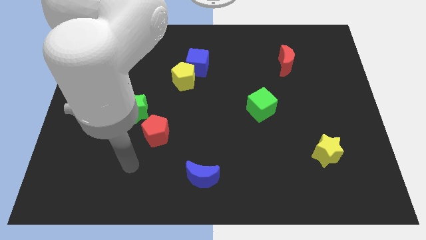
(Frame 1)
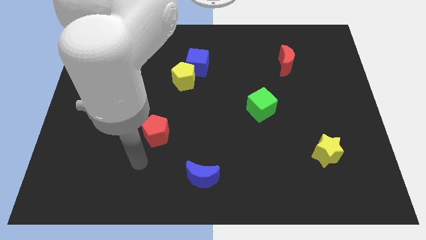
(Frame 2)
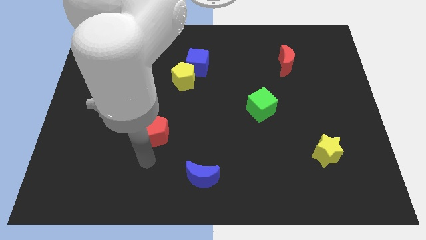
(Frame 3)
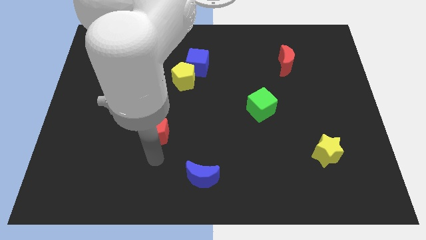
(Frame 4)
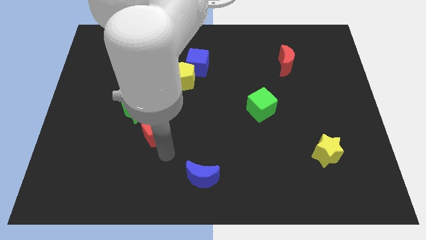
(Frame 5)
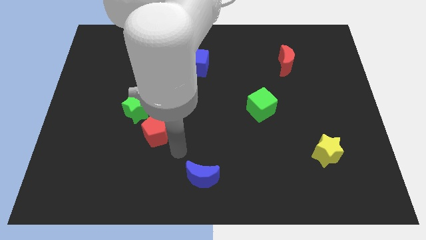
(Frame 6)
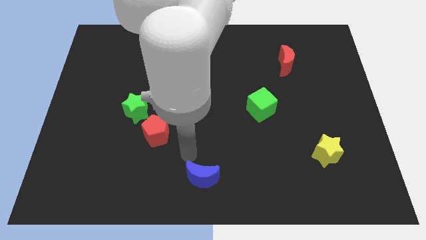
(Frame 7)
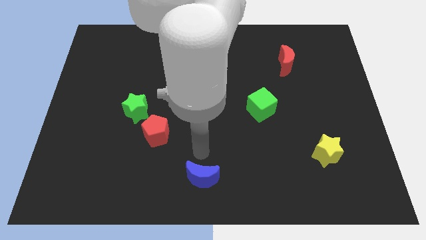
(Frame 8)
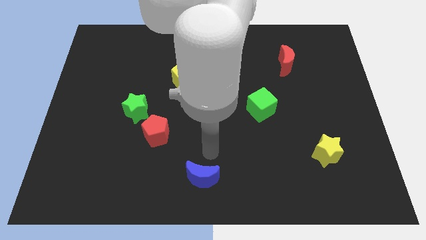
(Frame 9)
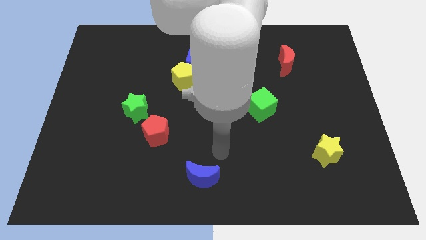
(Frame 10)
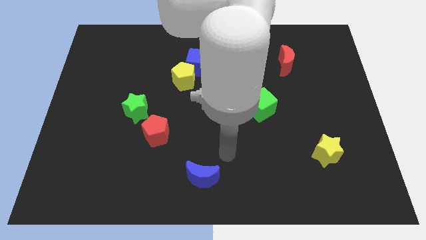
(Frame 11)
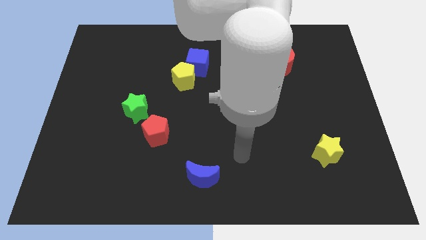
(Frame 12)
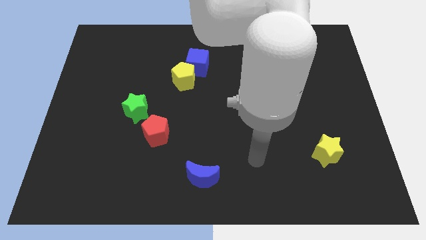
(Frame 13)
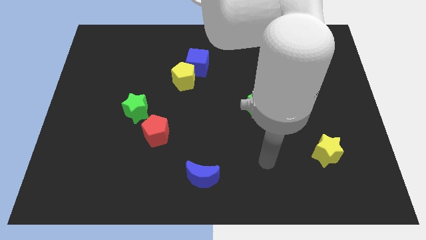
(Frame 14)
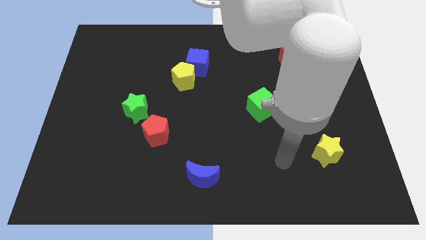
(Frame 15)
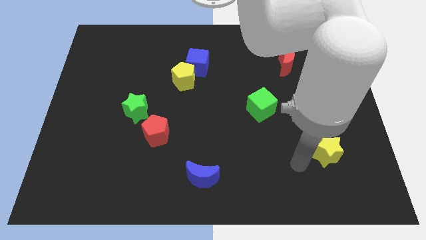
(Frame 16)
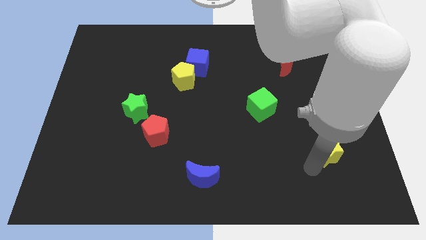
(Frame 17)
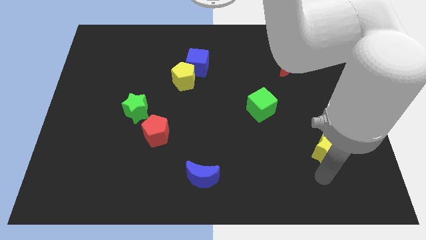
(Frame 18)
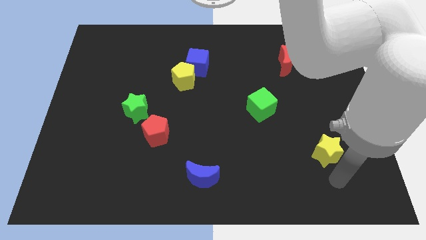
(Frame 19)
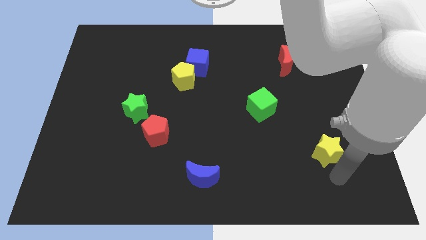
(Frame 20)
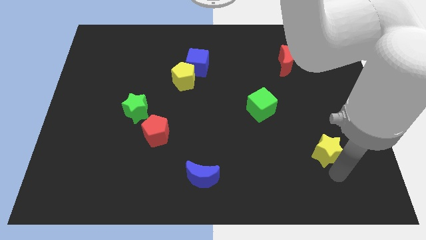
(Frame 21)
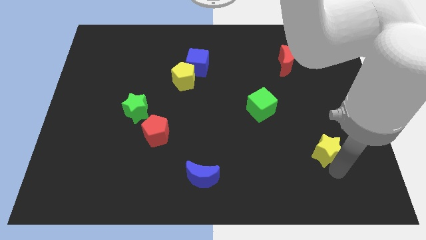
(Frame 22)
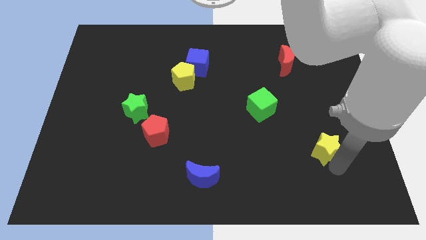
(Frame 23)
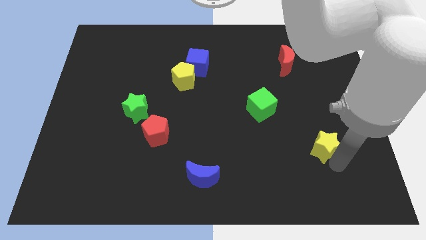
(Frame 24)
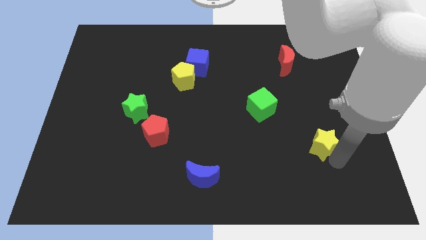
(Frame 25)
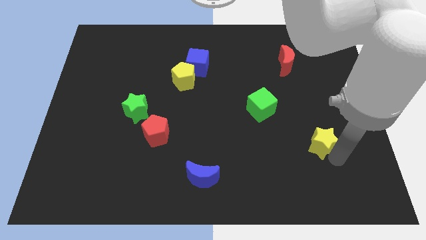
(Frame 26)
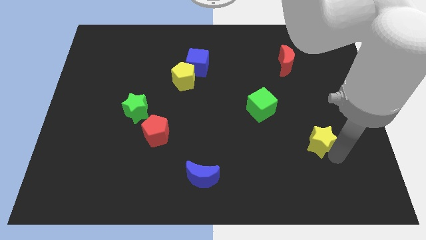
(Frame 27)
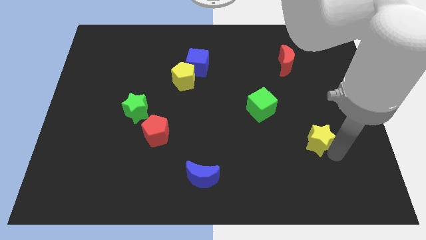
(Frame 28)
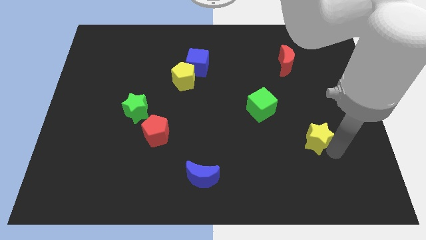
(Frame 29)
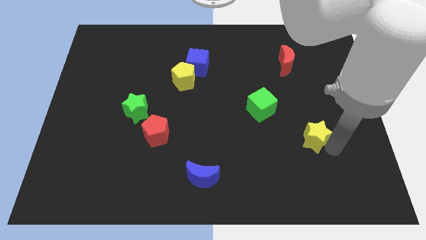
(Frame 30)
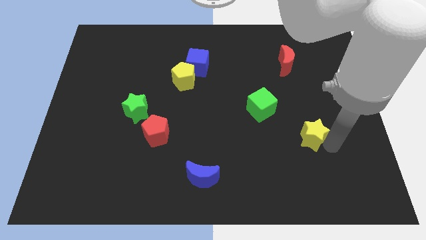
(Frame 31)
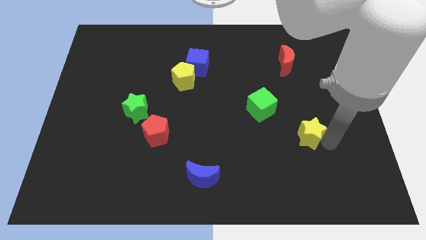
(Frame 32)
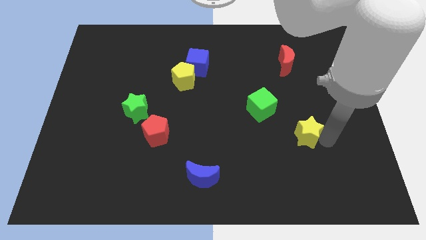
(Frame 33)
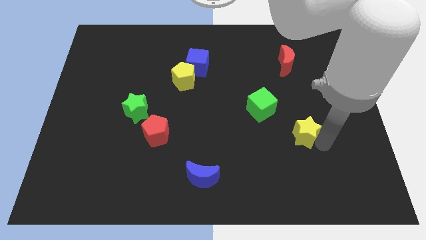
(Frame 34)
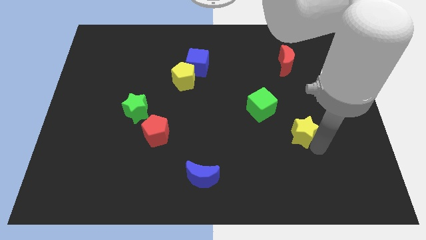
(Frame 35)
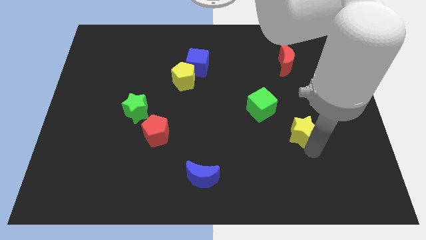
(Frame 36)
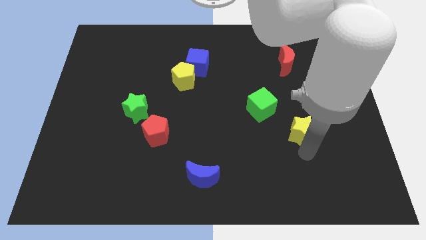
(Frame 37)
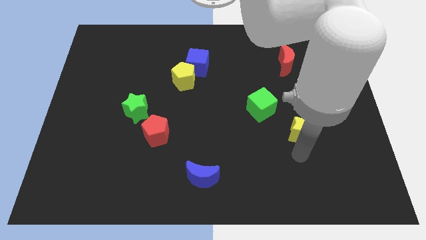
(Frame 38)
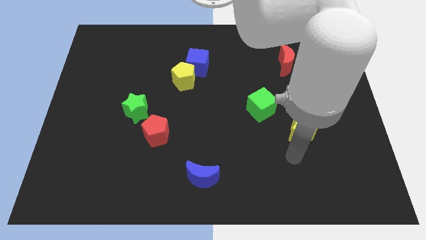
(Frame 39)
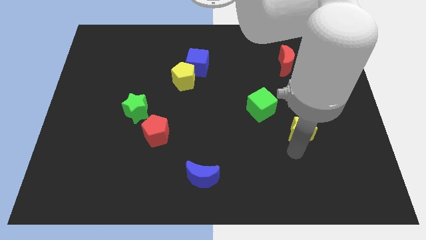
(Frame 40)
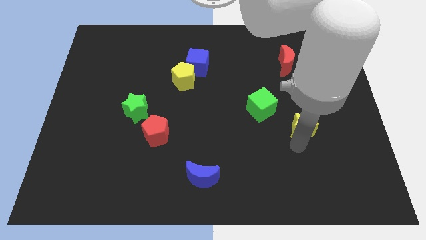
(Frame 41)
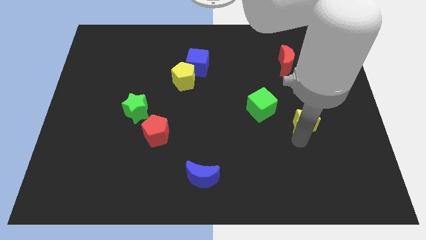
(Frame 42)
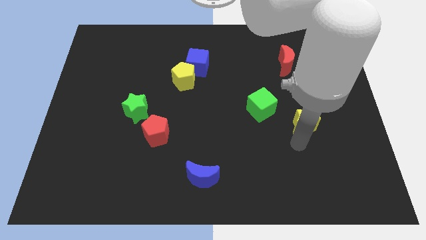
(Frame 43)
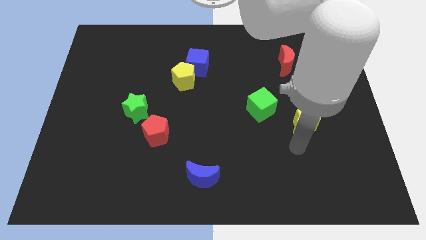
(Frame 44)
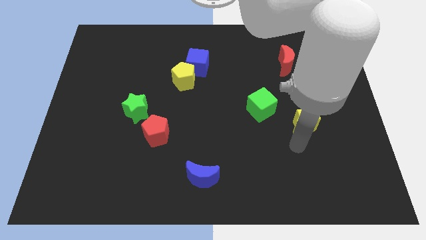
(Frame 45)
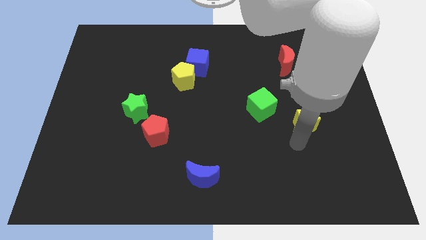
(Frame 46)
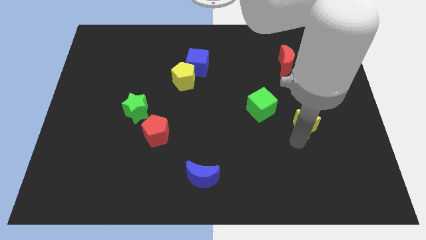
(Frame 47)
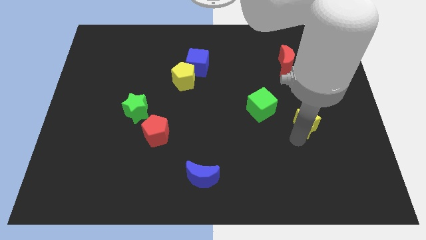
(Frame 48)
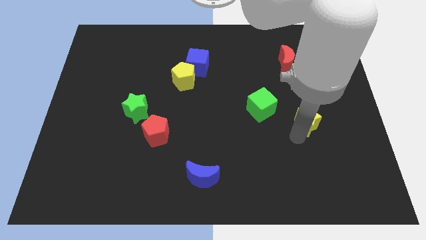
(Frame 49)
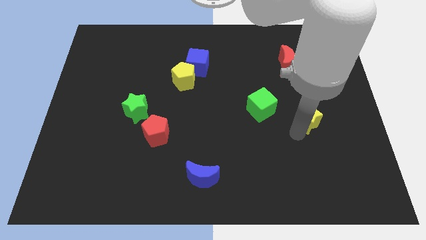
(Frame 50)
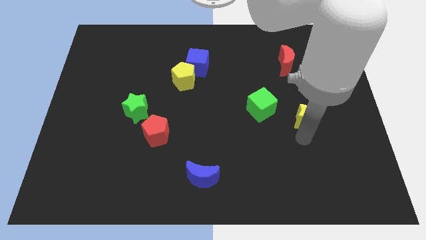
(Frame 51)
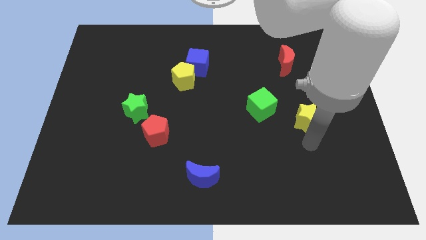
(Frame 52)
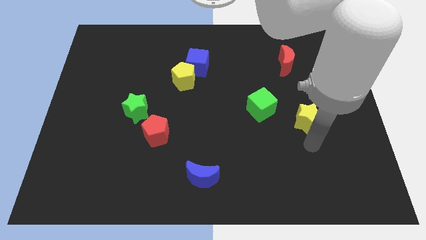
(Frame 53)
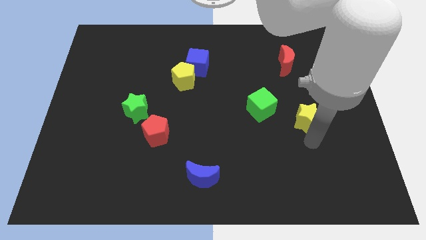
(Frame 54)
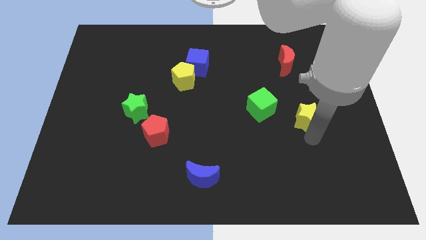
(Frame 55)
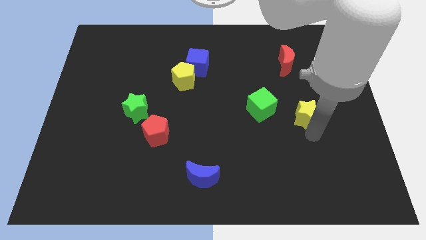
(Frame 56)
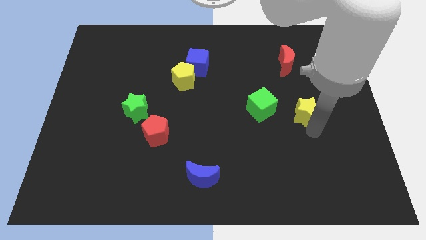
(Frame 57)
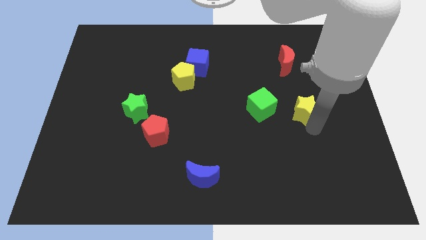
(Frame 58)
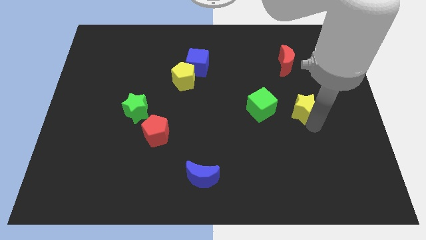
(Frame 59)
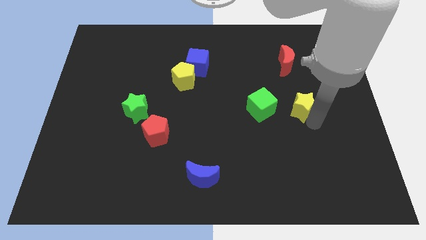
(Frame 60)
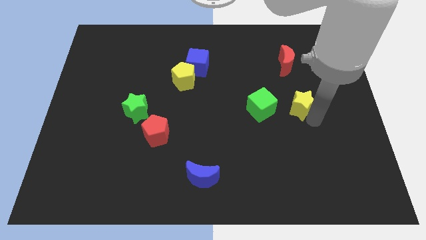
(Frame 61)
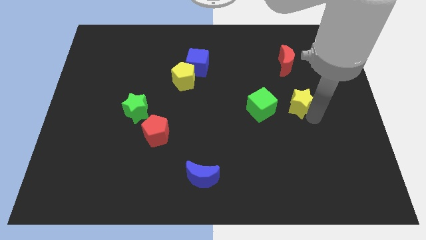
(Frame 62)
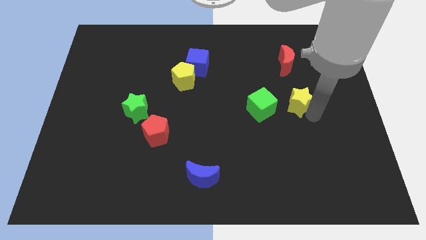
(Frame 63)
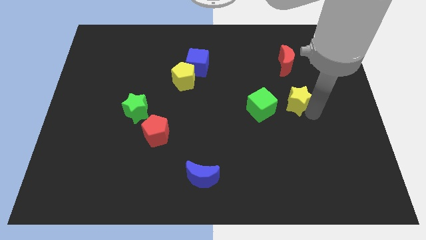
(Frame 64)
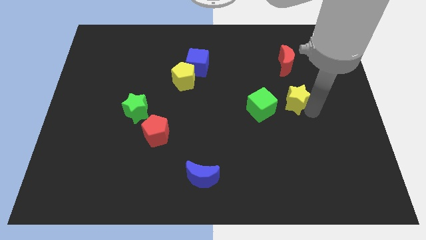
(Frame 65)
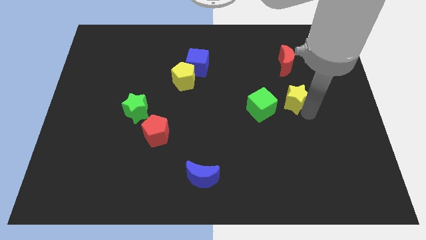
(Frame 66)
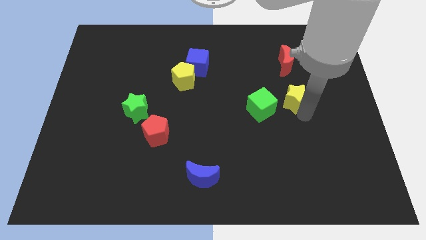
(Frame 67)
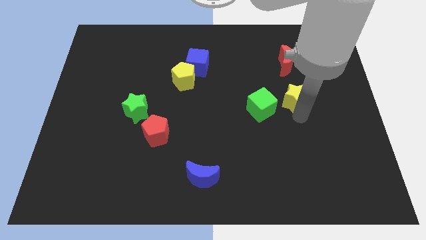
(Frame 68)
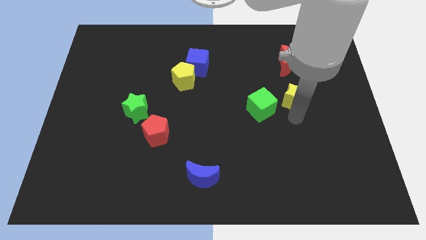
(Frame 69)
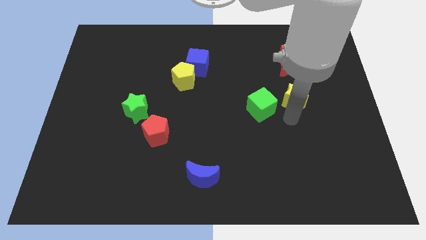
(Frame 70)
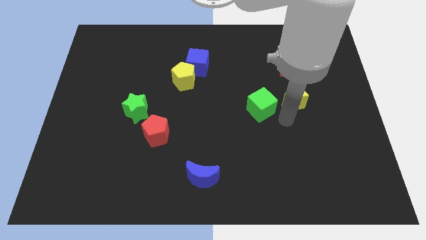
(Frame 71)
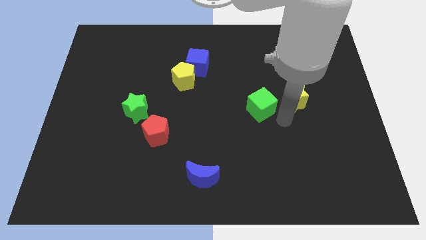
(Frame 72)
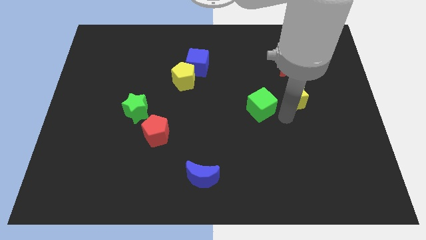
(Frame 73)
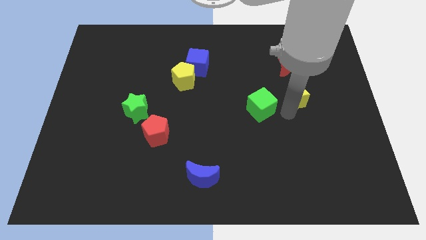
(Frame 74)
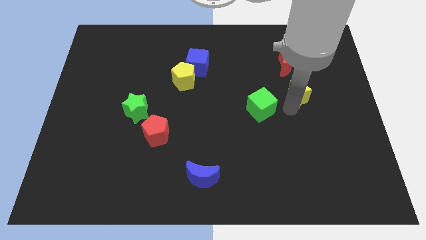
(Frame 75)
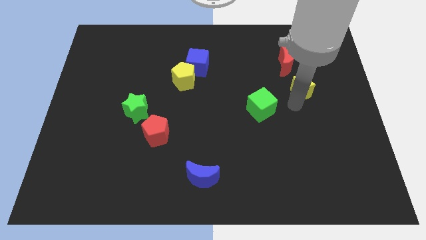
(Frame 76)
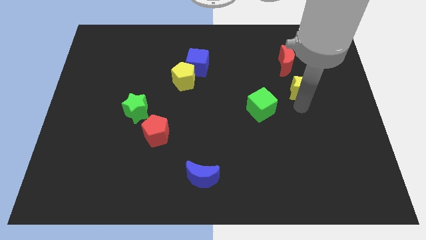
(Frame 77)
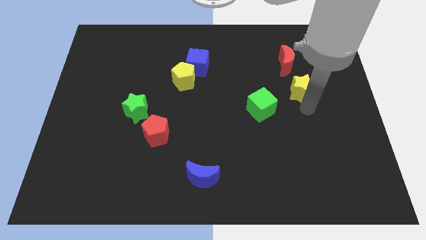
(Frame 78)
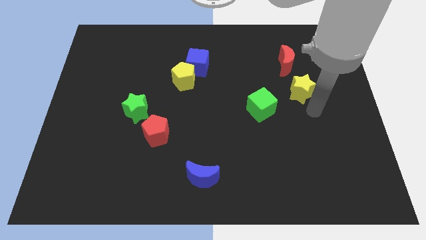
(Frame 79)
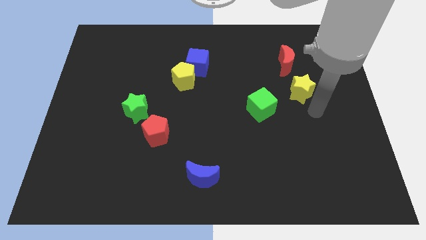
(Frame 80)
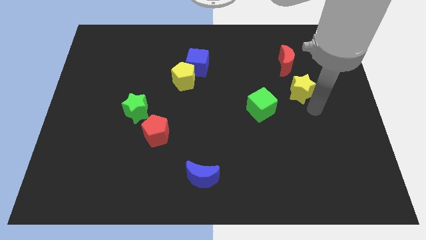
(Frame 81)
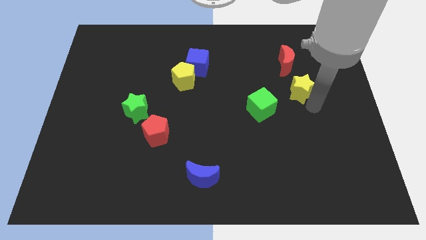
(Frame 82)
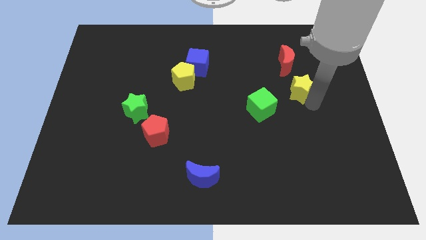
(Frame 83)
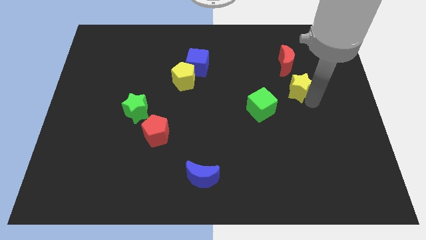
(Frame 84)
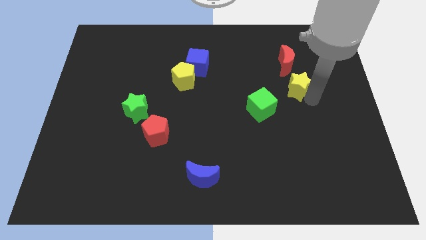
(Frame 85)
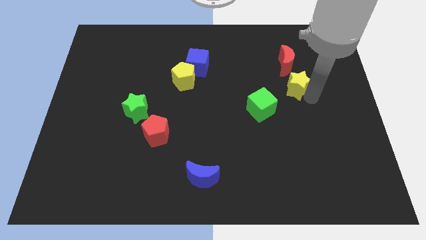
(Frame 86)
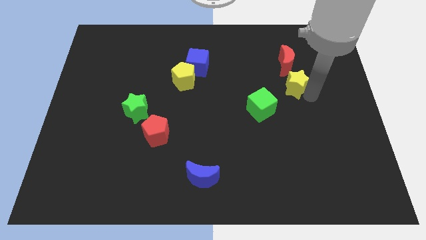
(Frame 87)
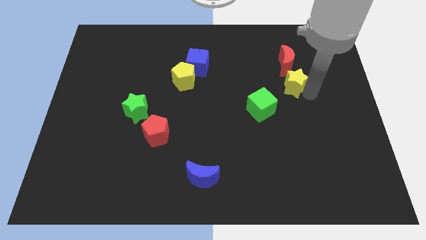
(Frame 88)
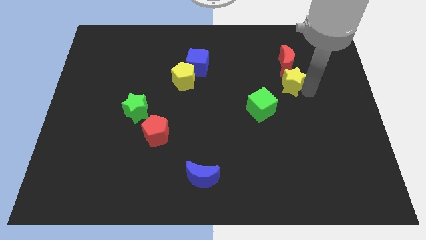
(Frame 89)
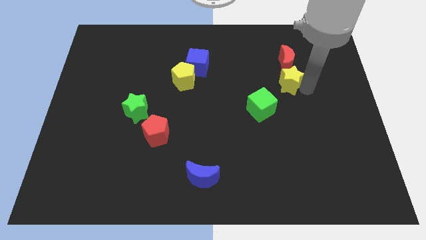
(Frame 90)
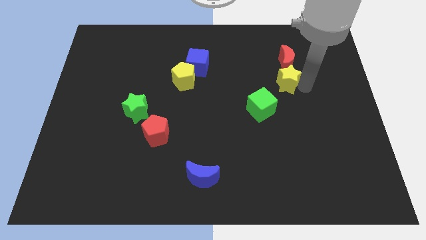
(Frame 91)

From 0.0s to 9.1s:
put the yellow star to the red moon
